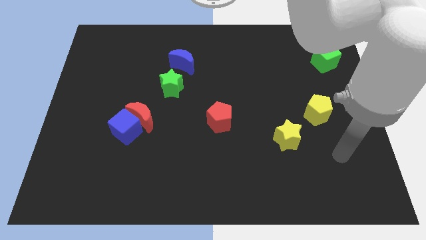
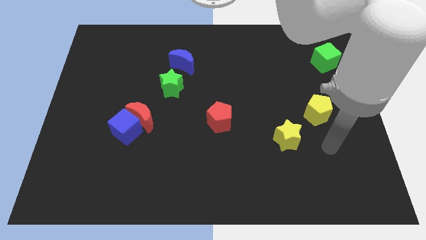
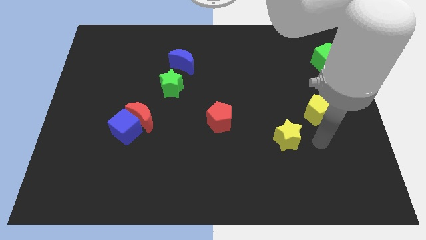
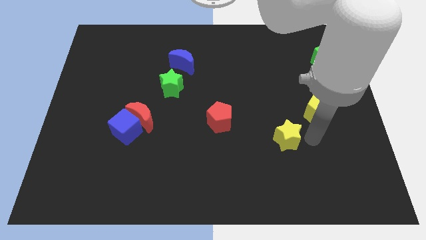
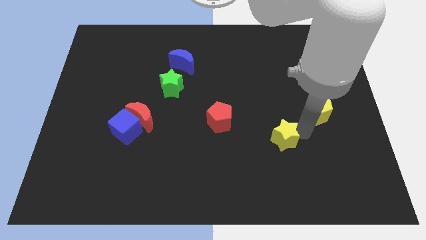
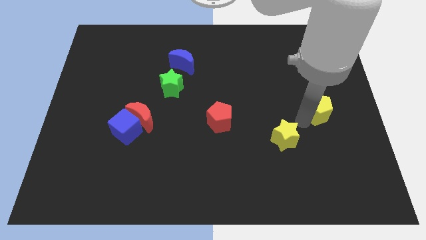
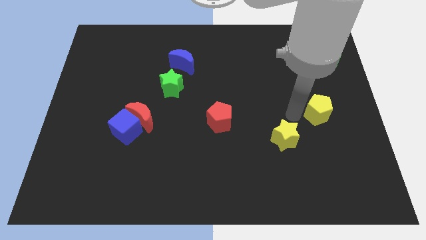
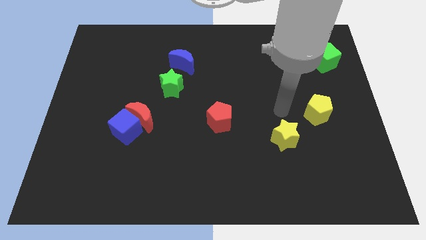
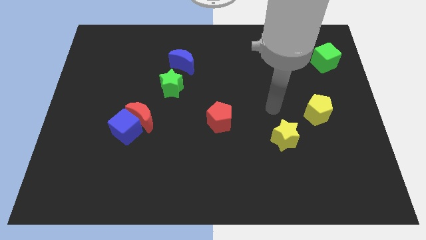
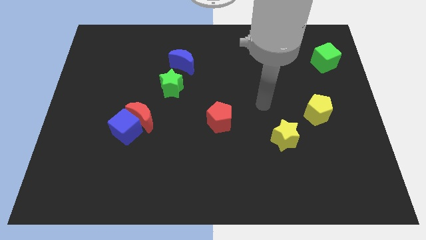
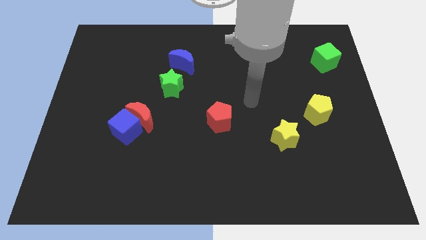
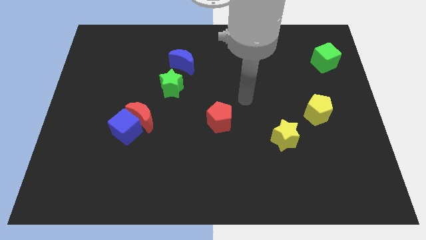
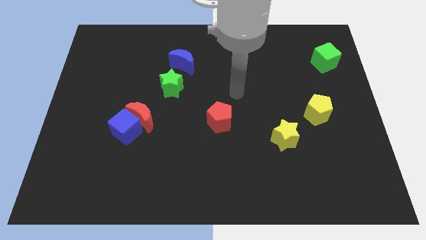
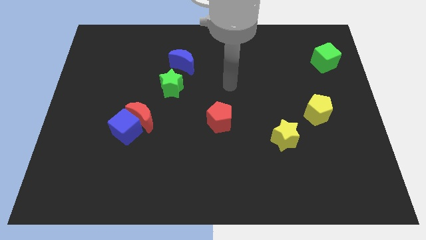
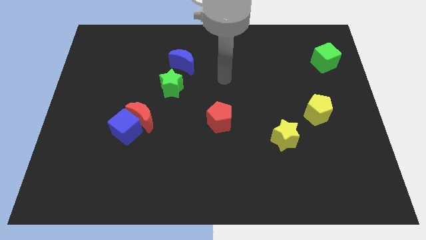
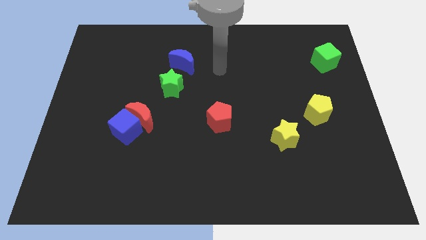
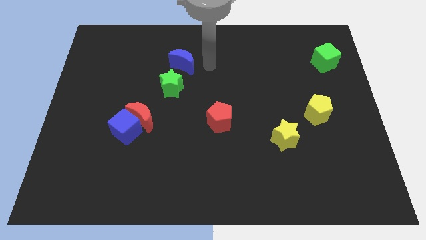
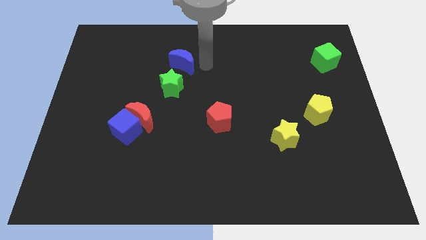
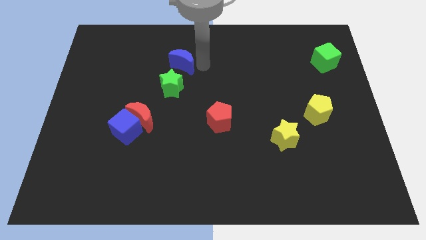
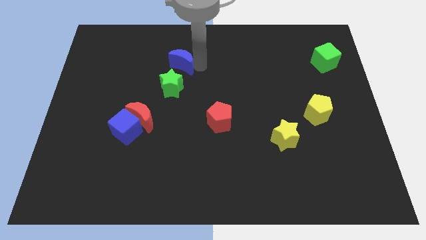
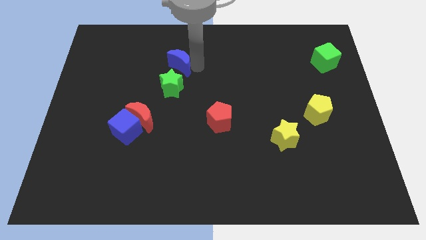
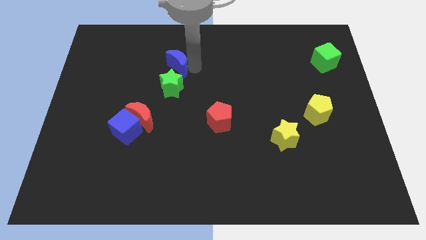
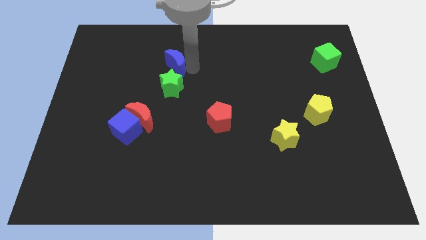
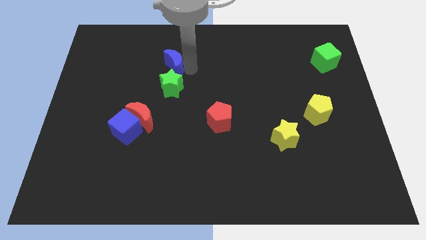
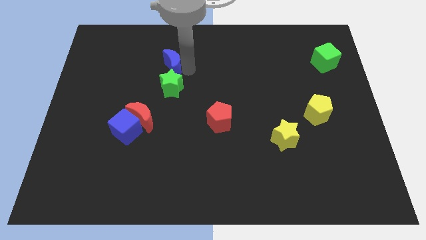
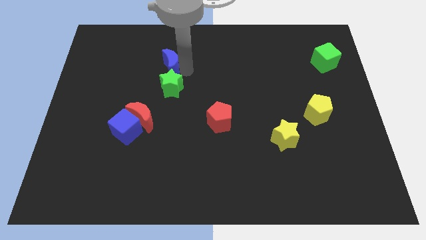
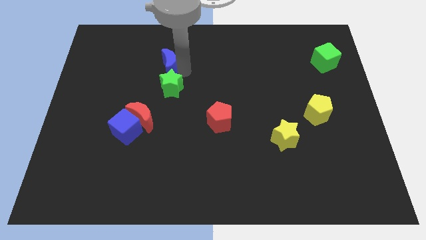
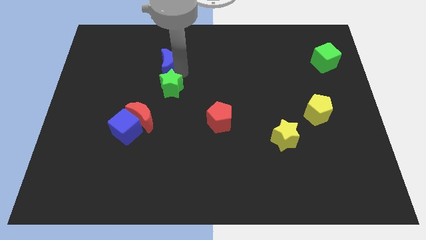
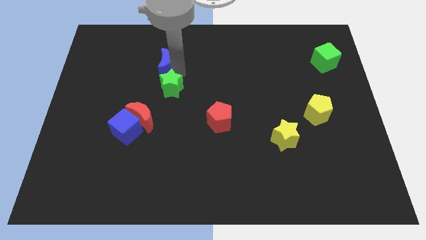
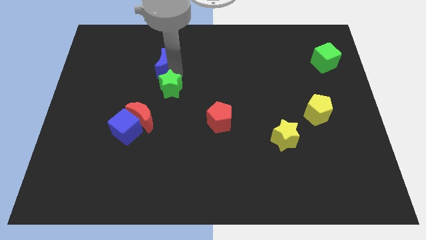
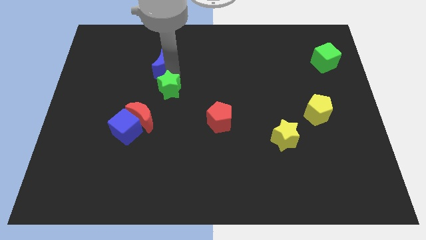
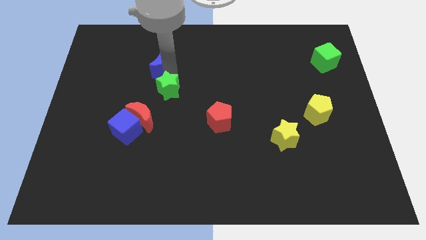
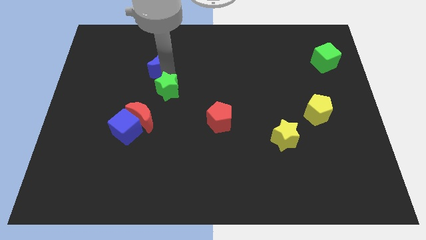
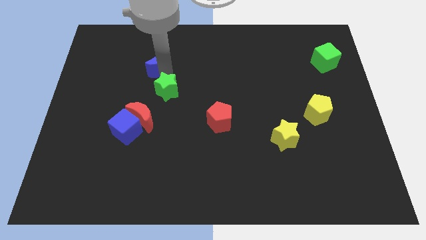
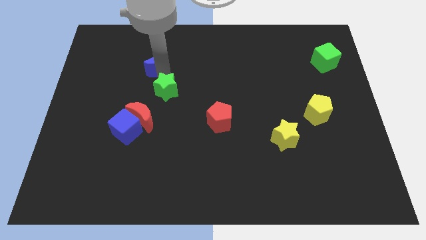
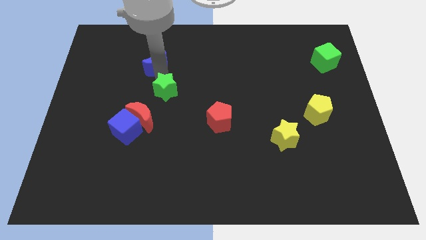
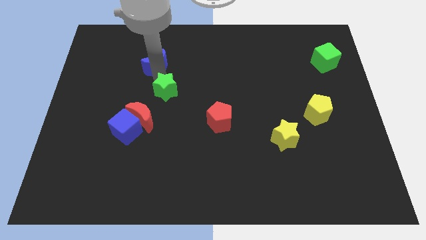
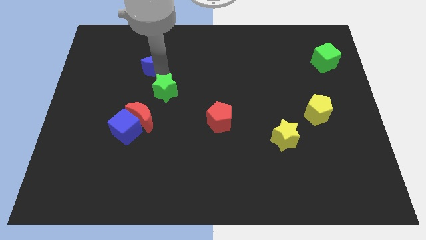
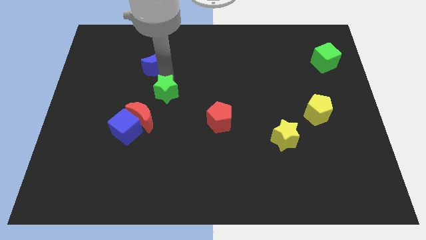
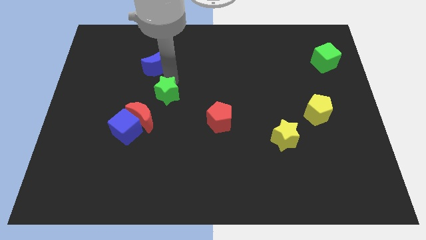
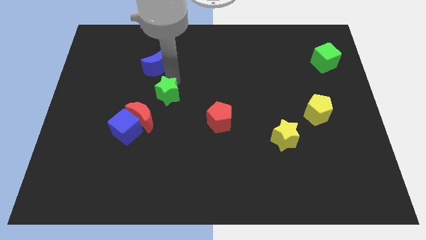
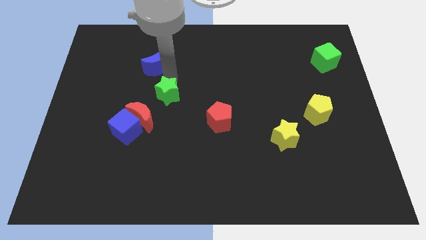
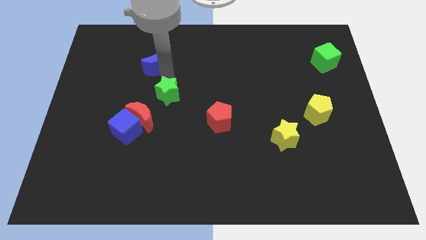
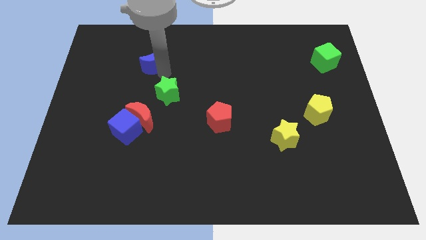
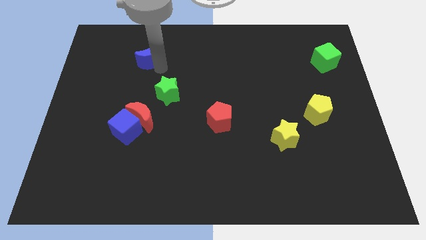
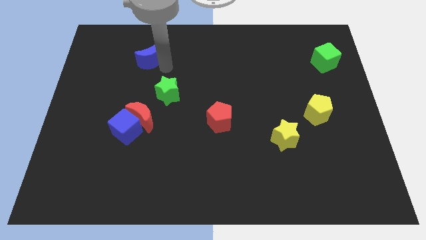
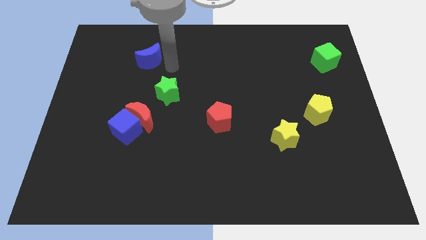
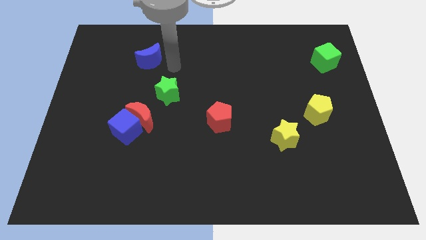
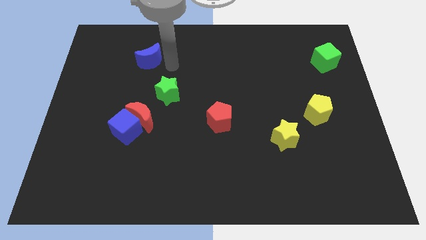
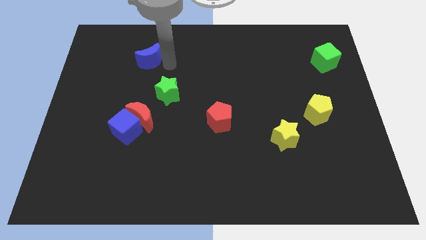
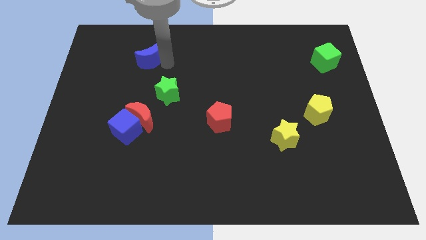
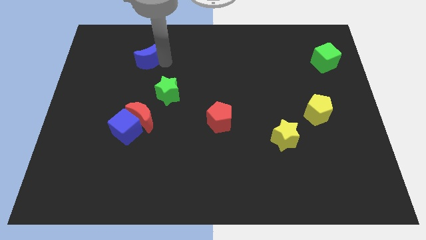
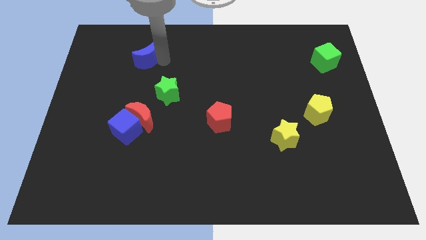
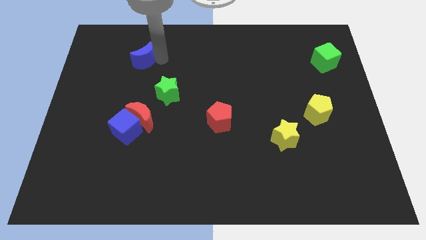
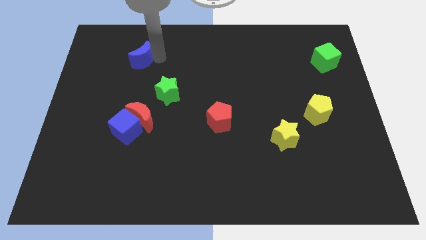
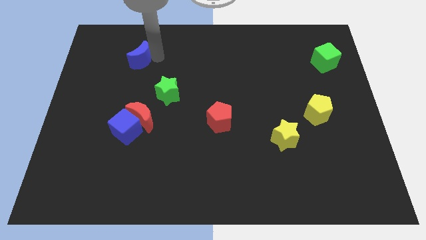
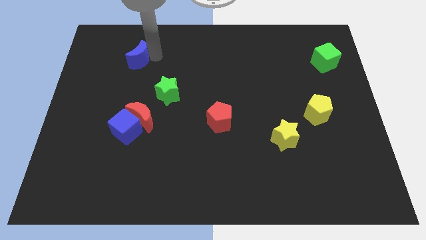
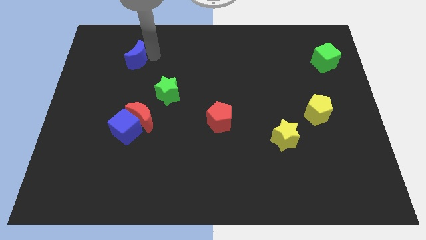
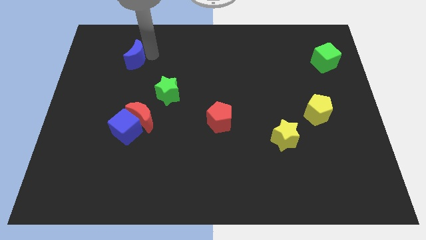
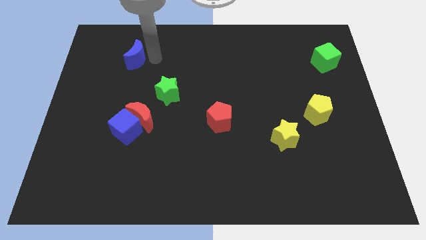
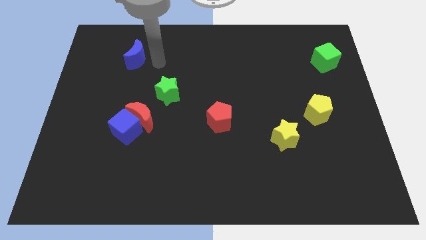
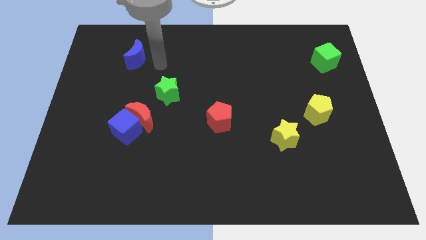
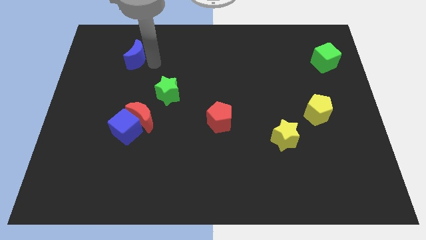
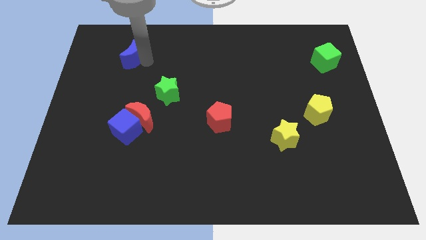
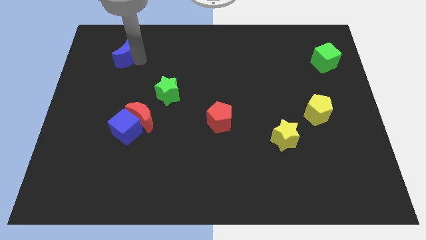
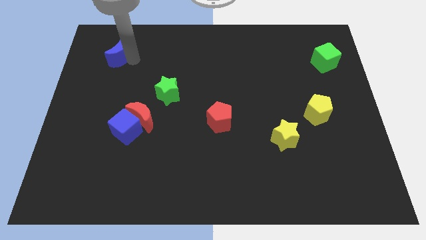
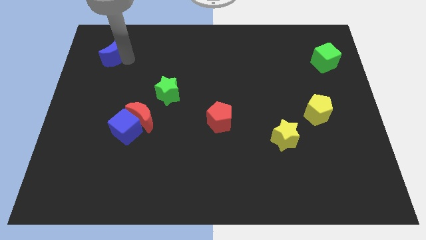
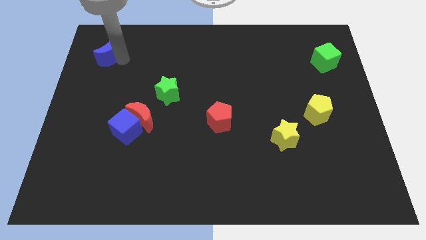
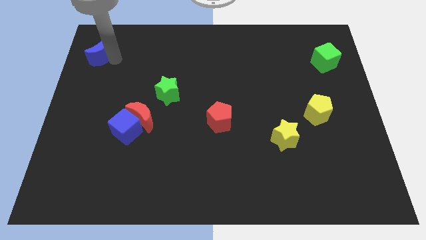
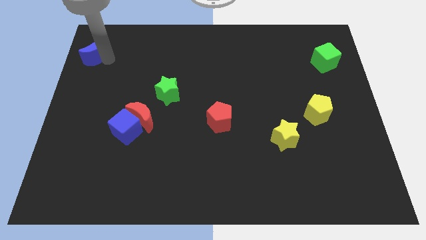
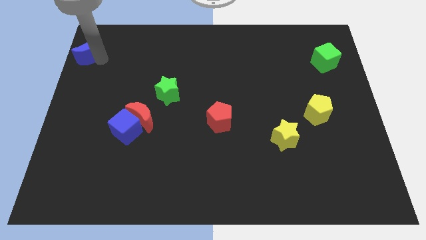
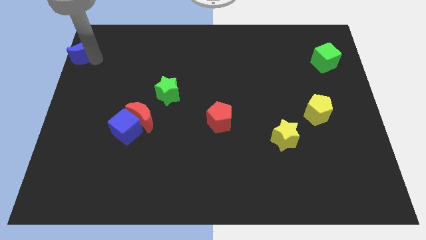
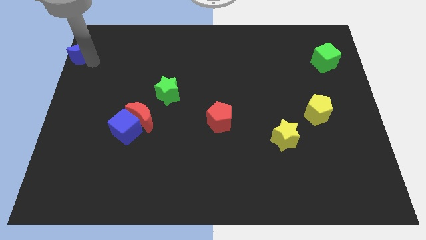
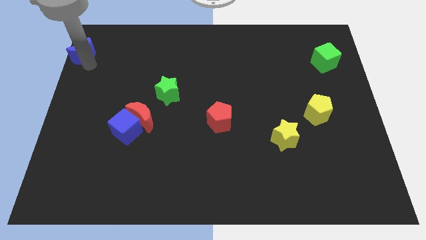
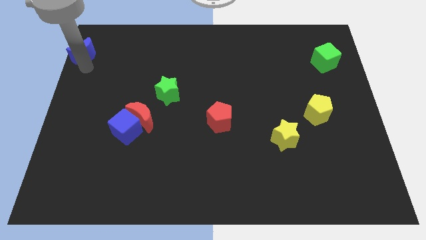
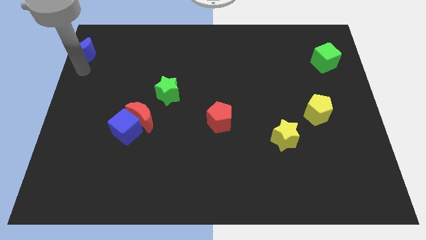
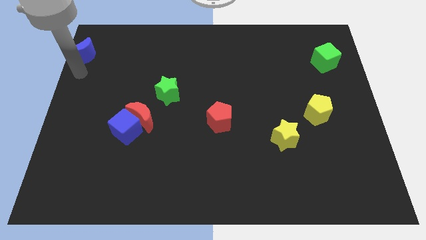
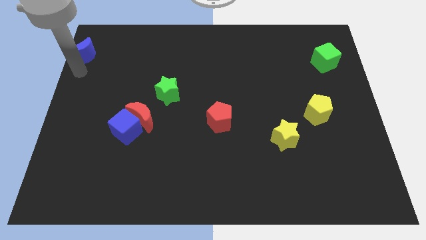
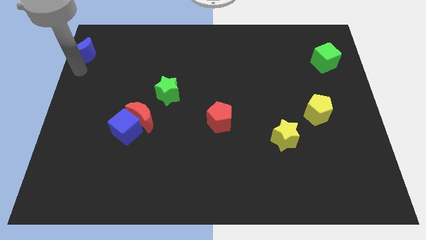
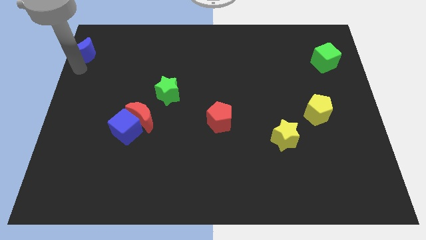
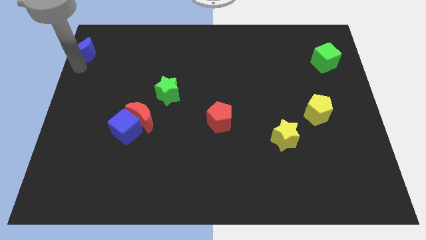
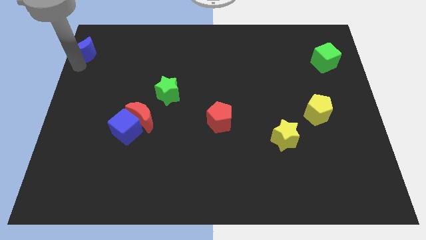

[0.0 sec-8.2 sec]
push the blue moon to the top left
